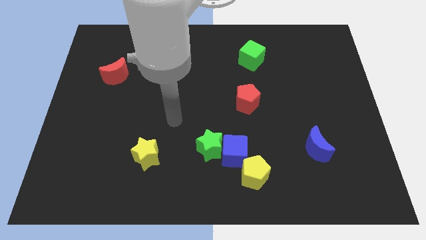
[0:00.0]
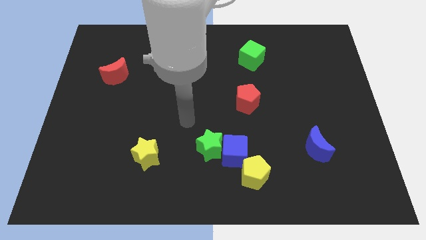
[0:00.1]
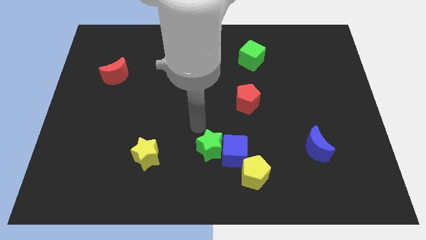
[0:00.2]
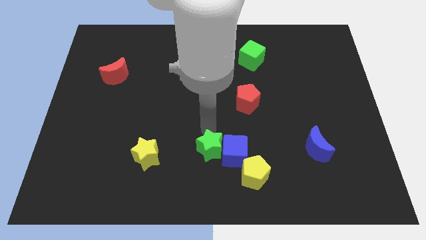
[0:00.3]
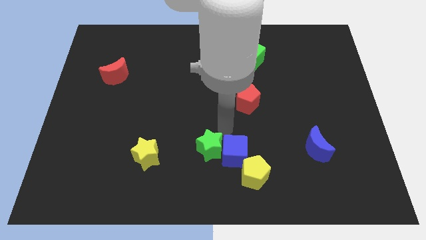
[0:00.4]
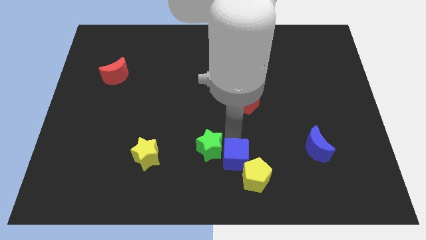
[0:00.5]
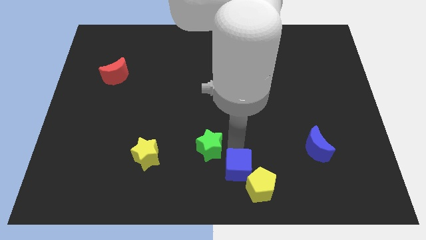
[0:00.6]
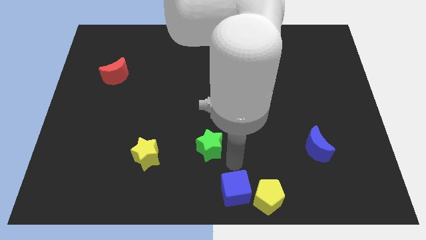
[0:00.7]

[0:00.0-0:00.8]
move the green star away from the blue cube

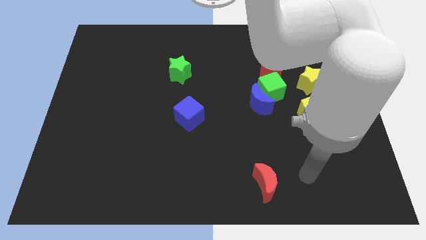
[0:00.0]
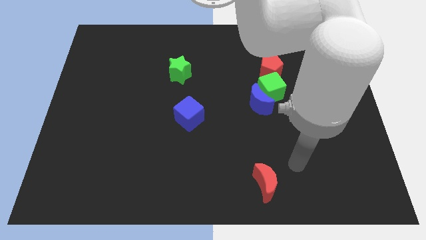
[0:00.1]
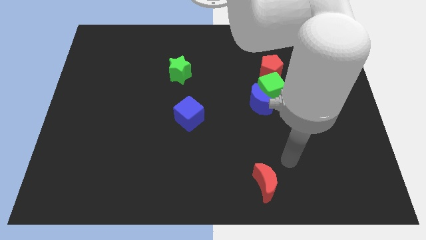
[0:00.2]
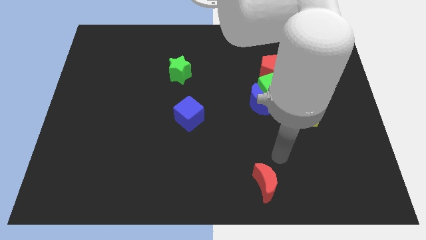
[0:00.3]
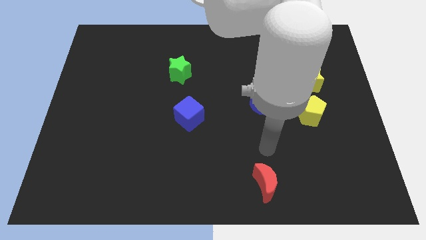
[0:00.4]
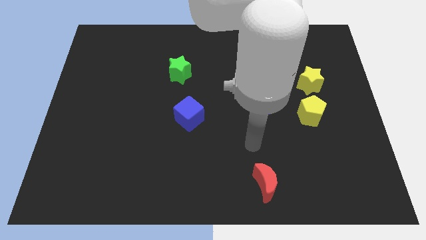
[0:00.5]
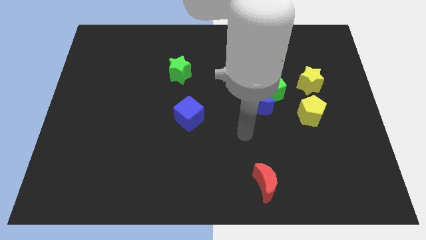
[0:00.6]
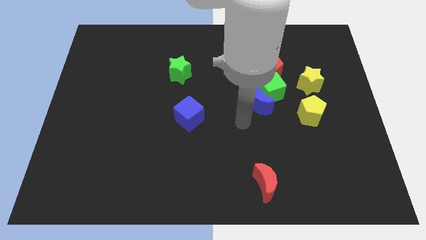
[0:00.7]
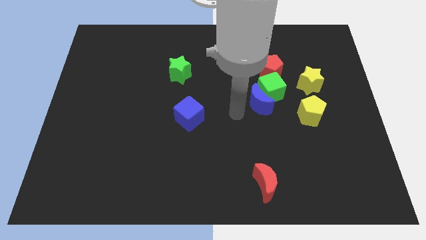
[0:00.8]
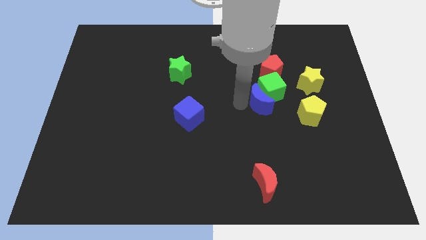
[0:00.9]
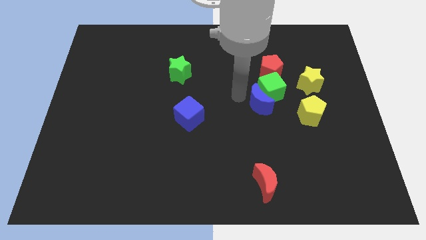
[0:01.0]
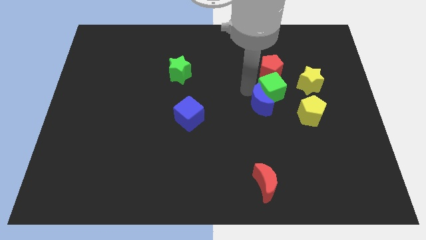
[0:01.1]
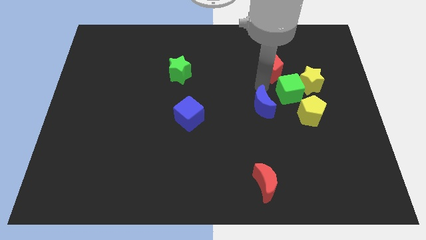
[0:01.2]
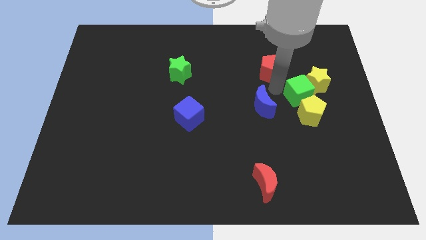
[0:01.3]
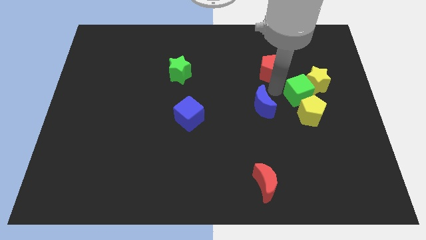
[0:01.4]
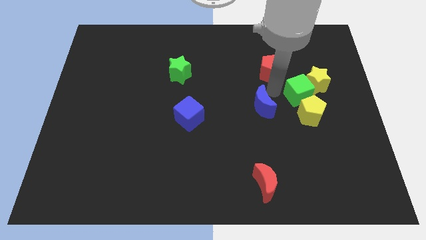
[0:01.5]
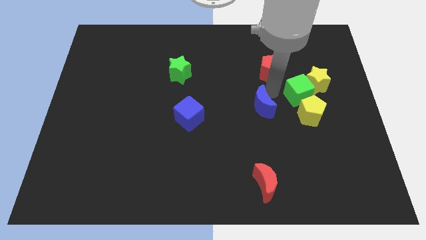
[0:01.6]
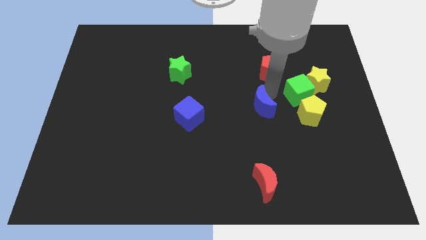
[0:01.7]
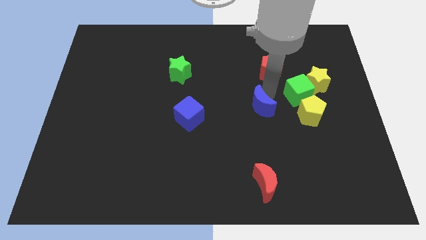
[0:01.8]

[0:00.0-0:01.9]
pull the blue moon apart from the green cube

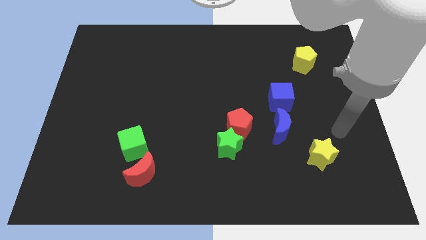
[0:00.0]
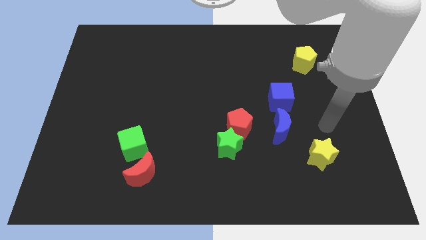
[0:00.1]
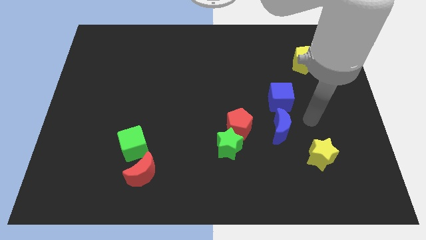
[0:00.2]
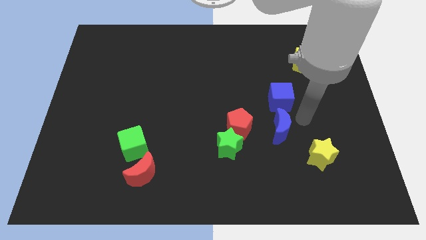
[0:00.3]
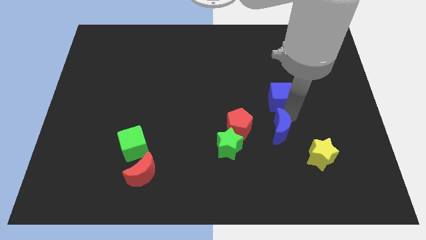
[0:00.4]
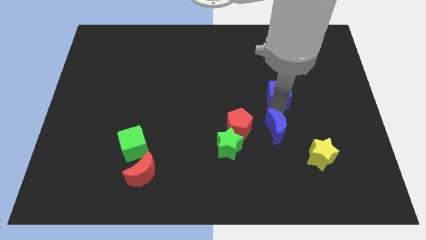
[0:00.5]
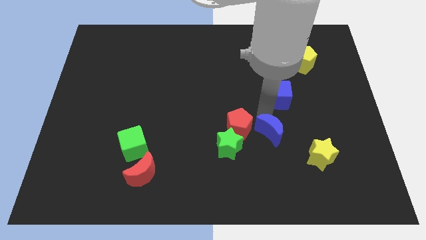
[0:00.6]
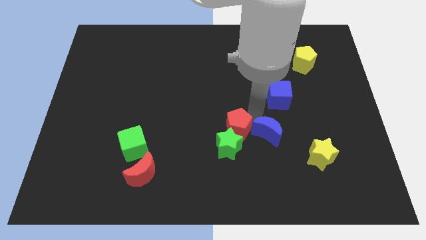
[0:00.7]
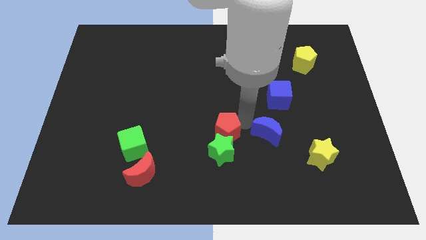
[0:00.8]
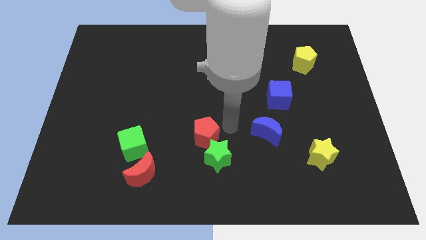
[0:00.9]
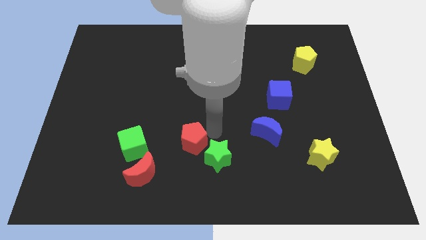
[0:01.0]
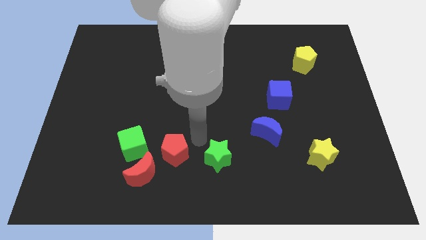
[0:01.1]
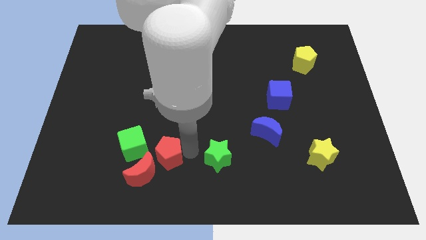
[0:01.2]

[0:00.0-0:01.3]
separate the green star from the red pentagon

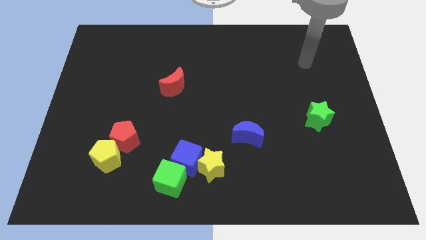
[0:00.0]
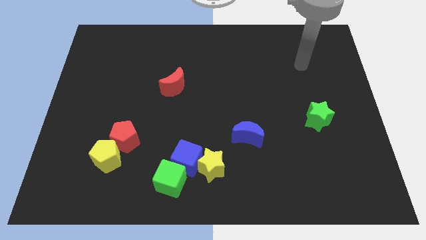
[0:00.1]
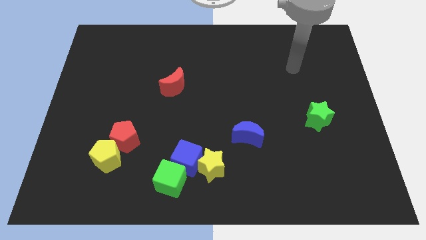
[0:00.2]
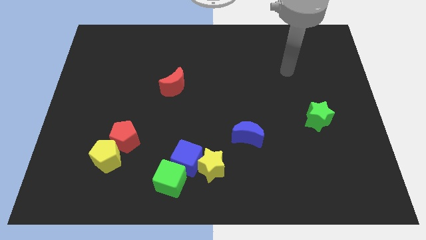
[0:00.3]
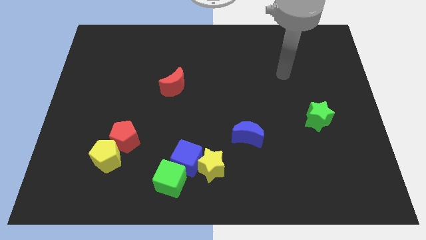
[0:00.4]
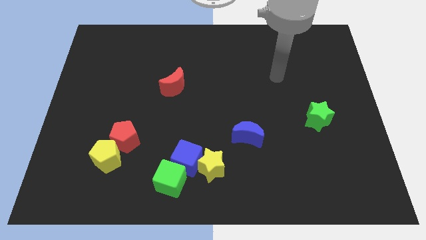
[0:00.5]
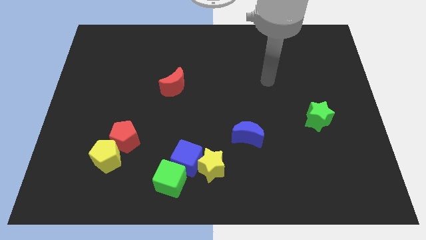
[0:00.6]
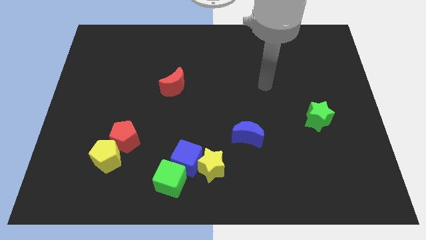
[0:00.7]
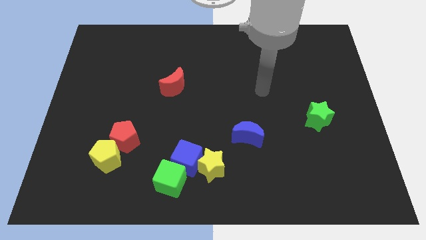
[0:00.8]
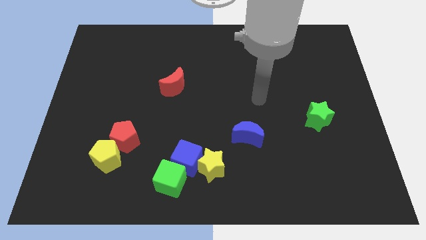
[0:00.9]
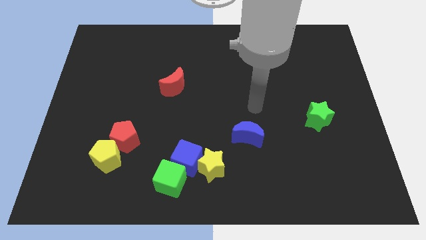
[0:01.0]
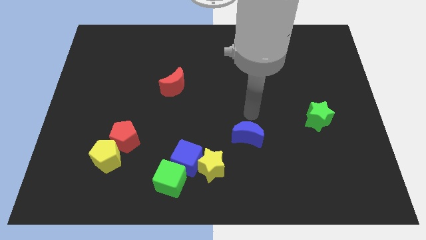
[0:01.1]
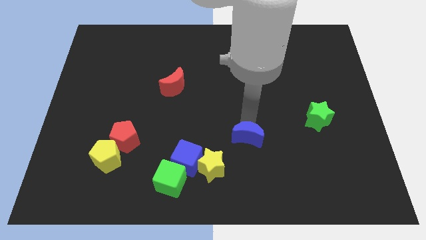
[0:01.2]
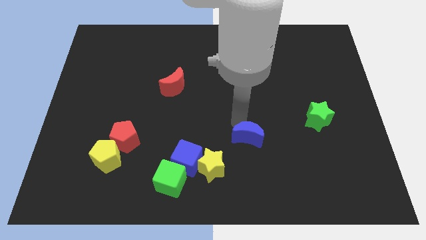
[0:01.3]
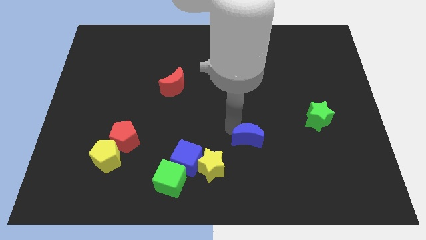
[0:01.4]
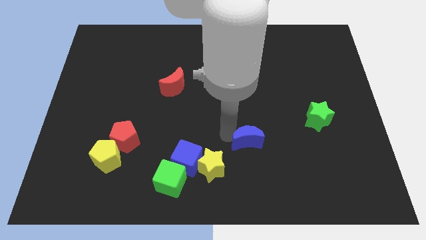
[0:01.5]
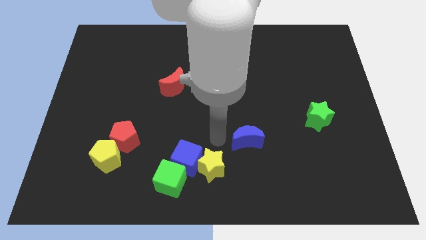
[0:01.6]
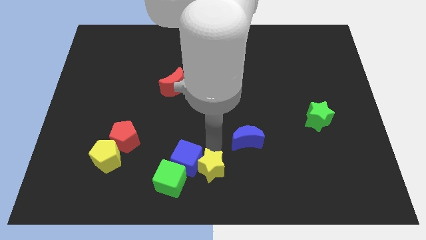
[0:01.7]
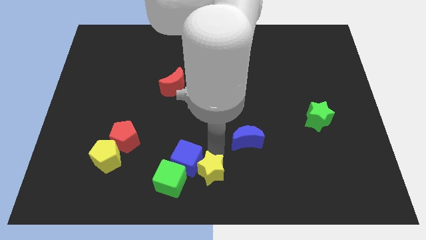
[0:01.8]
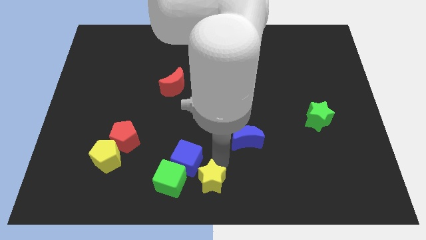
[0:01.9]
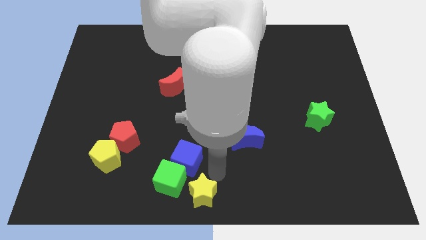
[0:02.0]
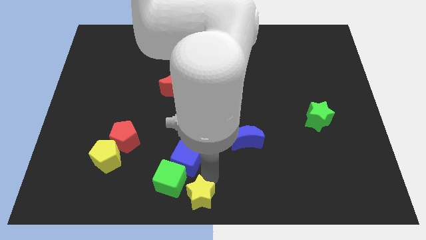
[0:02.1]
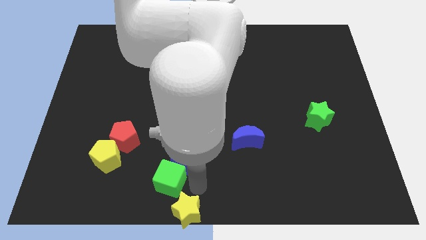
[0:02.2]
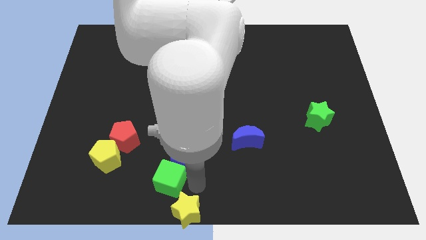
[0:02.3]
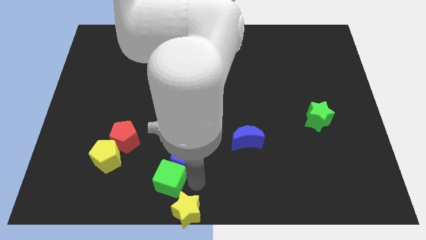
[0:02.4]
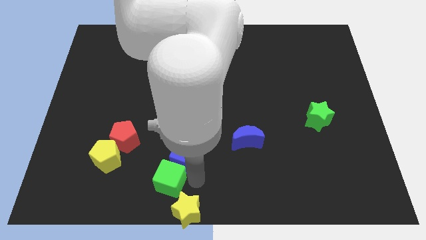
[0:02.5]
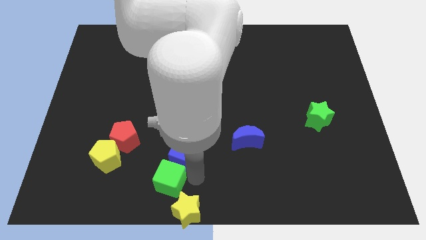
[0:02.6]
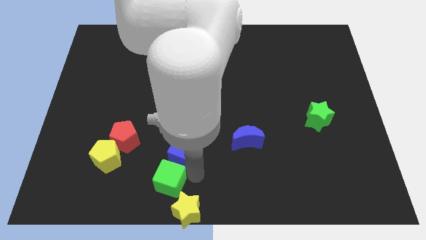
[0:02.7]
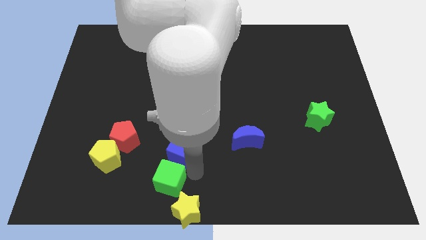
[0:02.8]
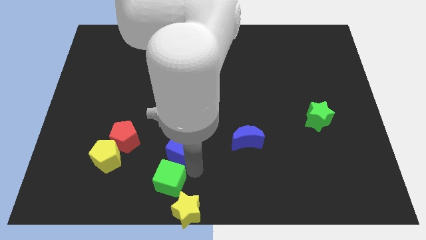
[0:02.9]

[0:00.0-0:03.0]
separate the blue cube from the yellow star and green cube

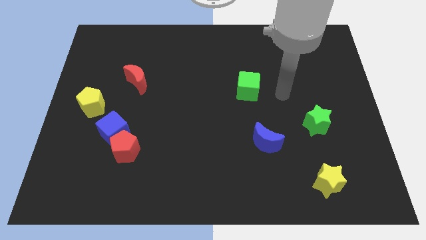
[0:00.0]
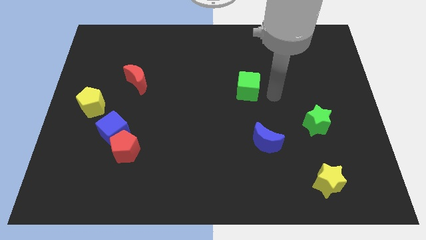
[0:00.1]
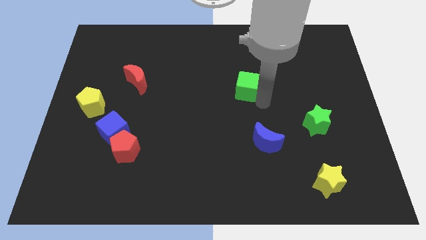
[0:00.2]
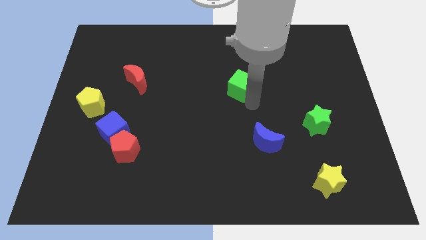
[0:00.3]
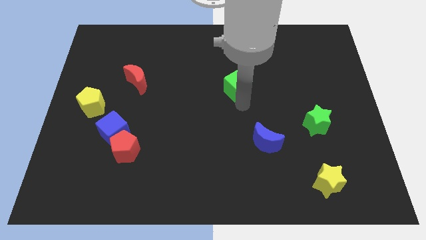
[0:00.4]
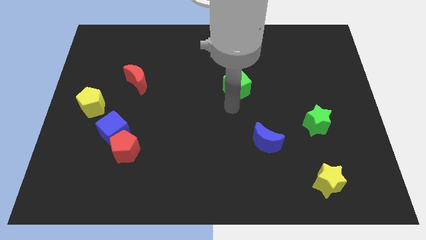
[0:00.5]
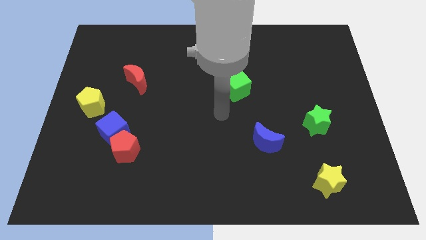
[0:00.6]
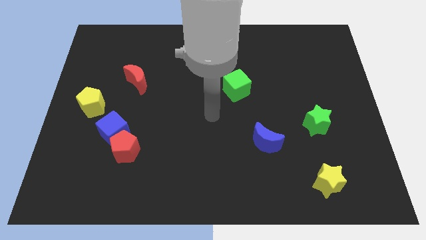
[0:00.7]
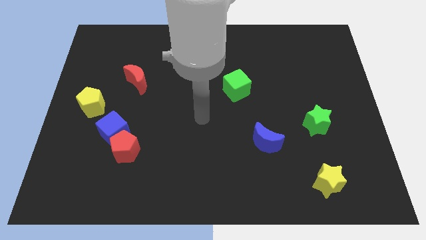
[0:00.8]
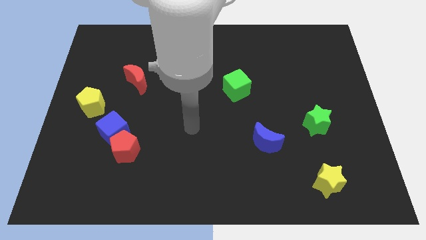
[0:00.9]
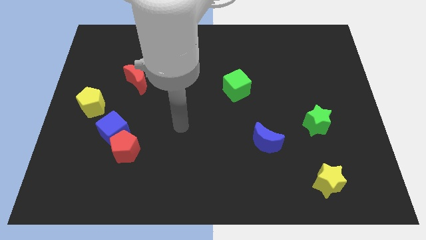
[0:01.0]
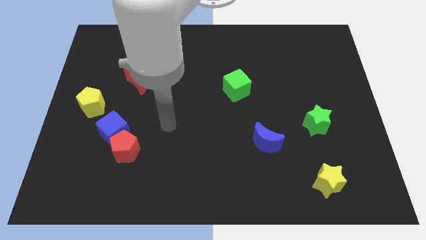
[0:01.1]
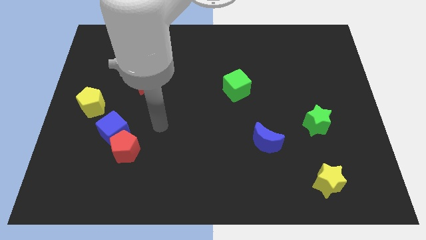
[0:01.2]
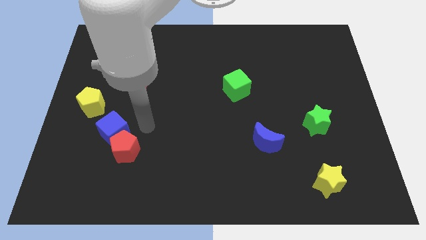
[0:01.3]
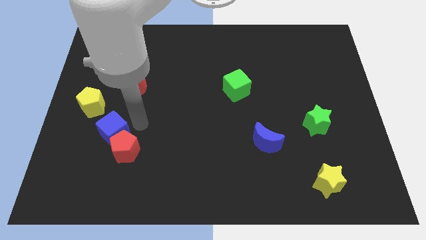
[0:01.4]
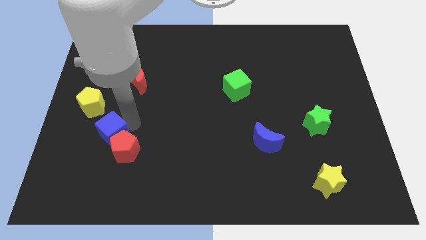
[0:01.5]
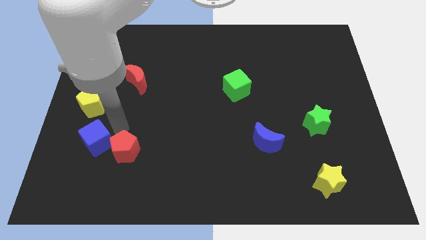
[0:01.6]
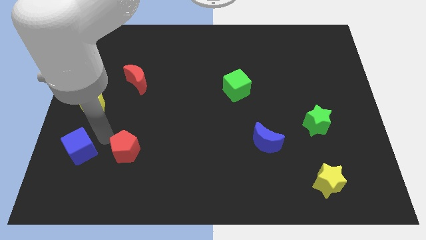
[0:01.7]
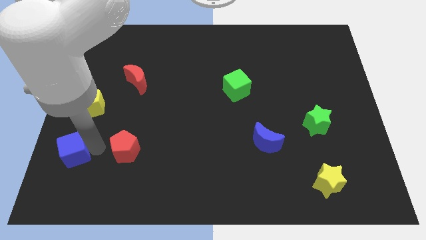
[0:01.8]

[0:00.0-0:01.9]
separate the red pentagon from the blue cube

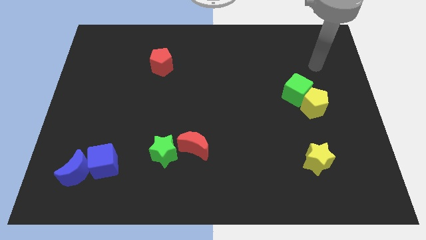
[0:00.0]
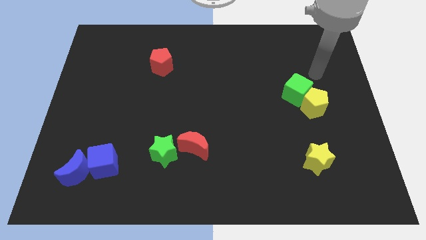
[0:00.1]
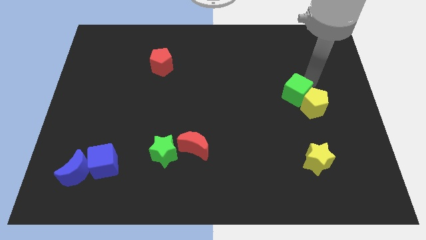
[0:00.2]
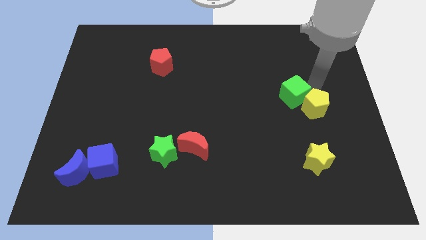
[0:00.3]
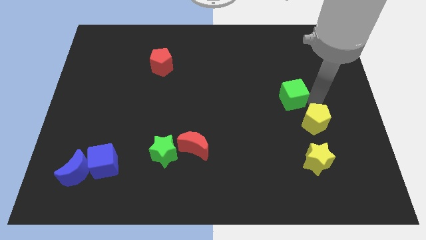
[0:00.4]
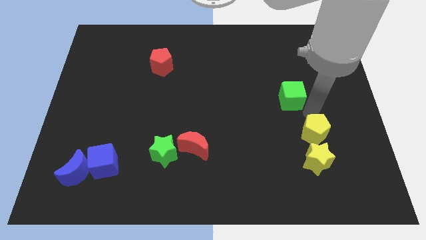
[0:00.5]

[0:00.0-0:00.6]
pull the green cube apart from the yellow pentagon
